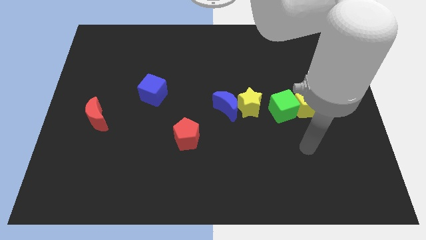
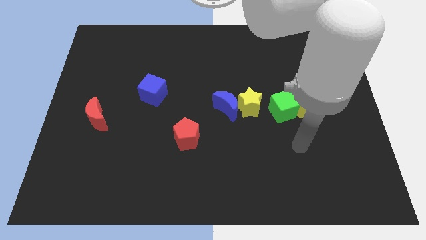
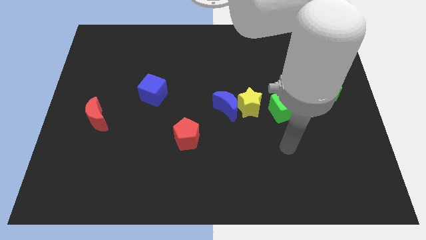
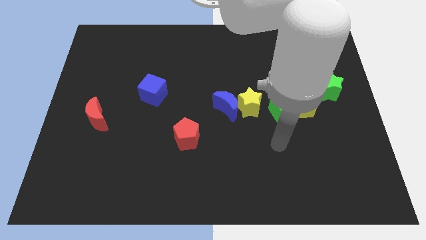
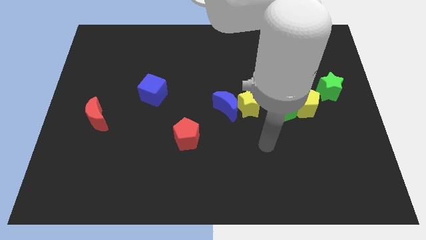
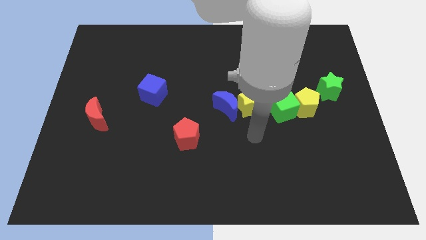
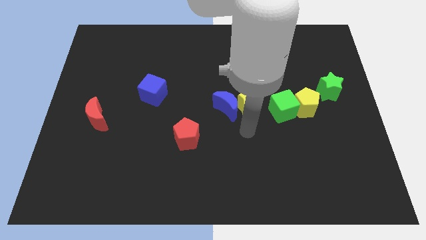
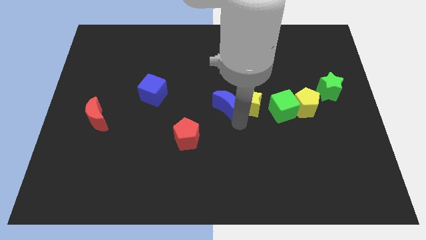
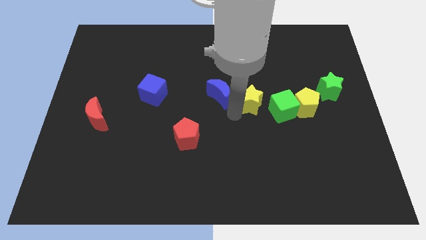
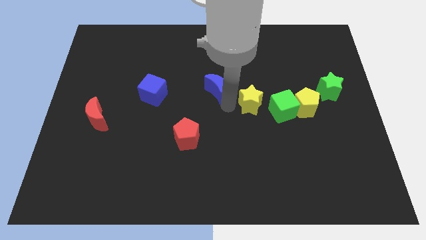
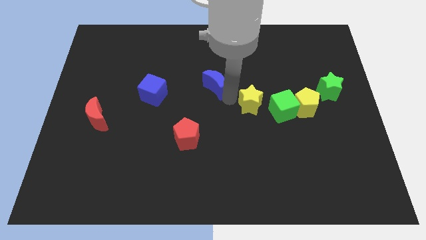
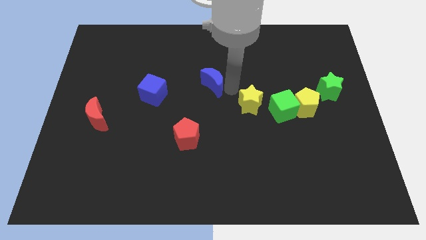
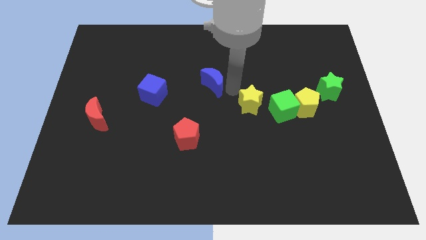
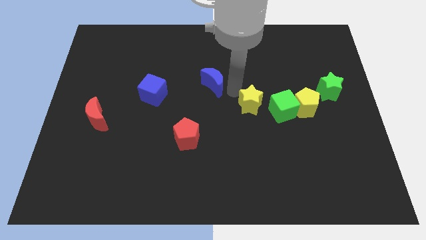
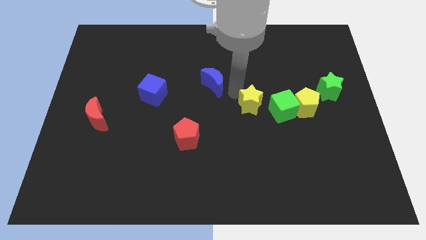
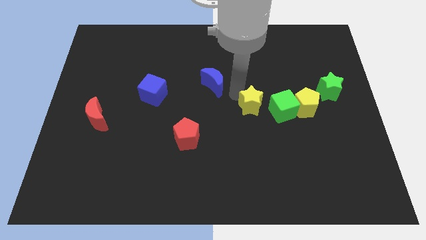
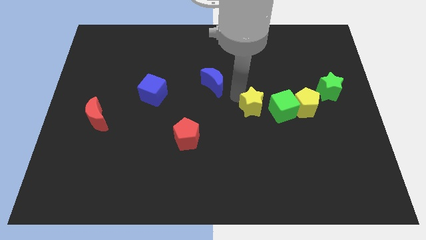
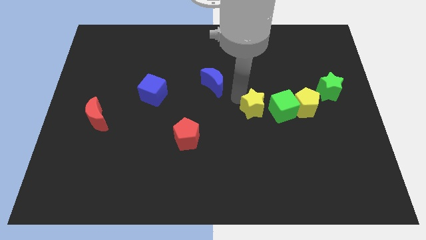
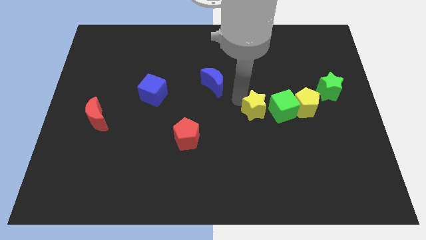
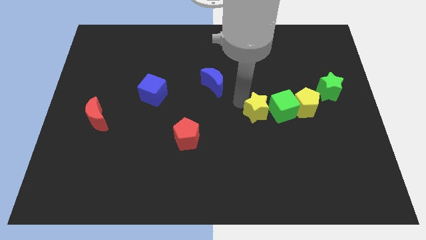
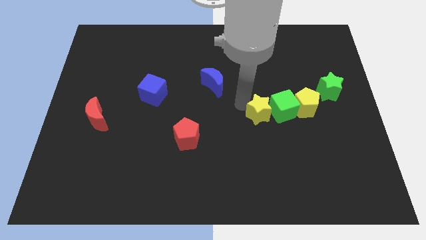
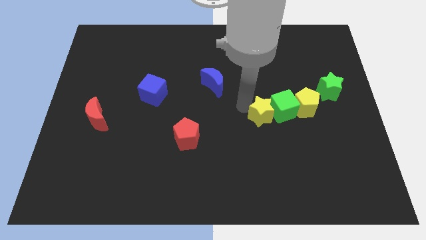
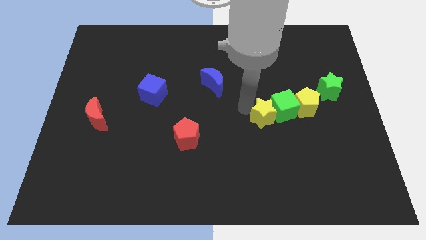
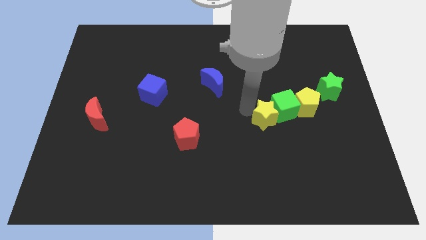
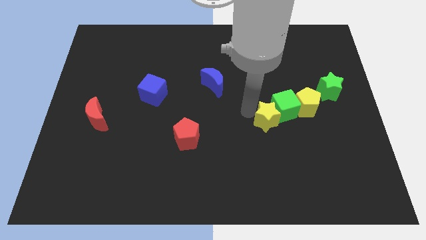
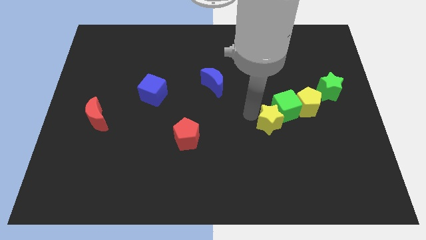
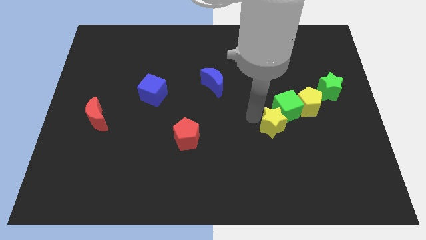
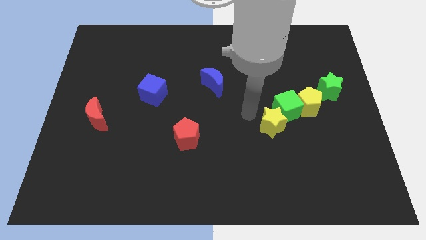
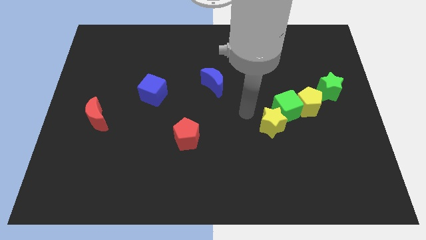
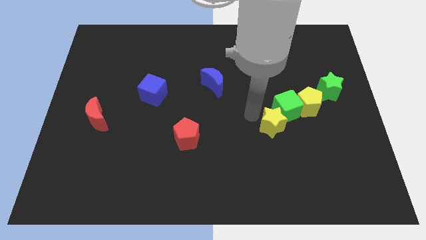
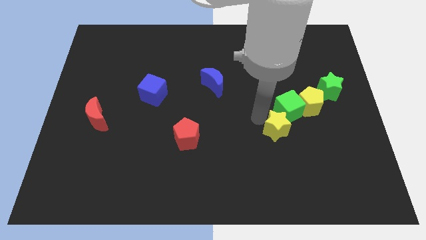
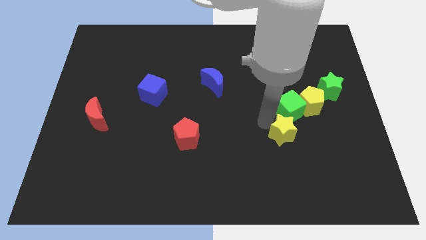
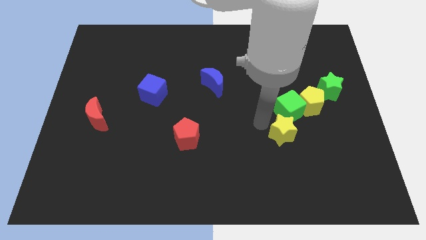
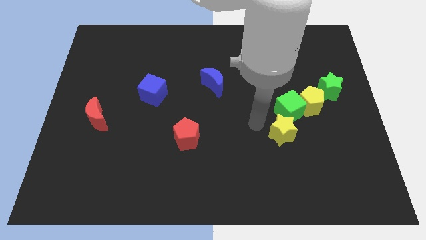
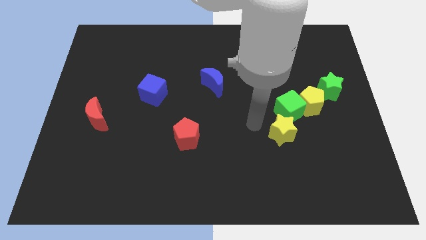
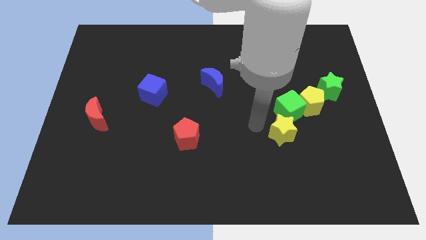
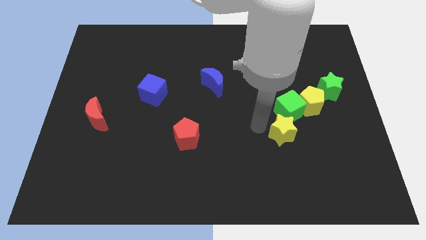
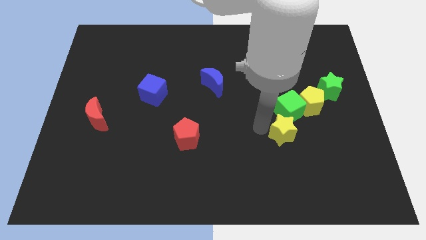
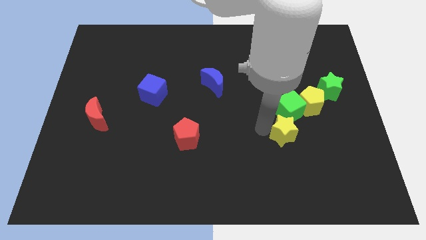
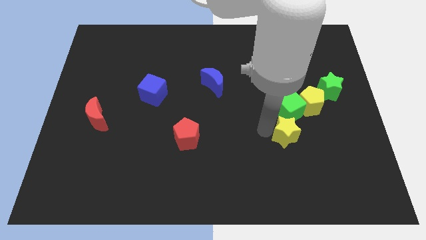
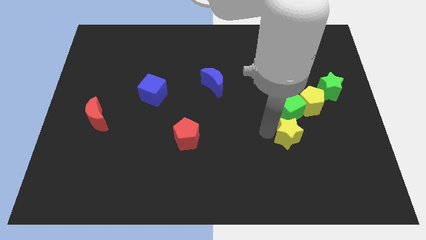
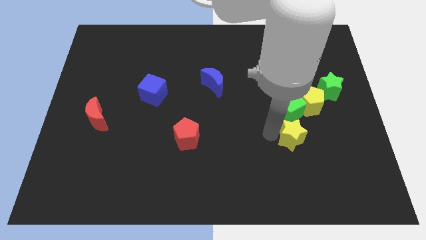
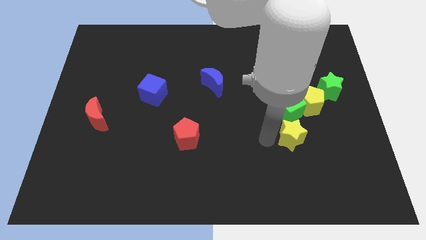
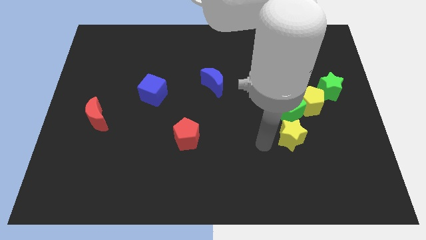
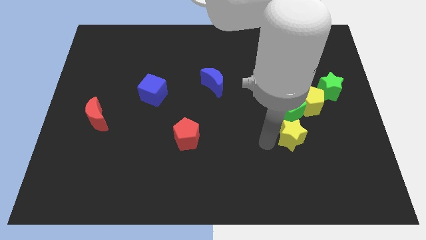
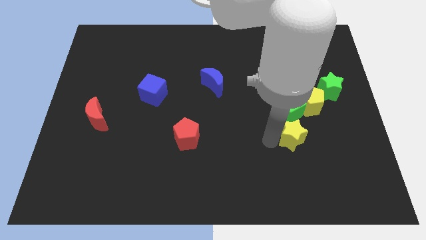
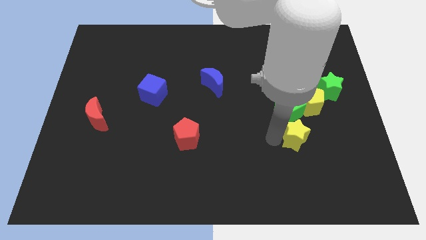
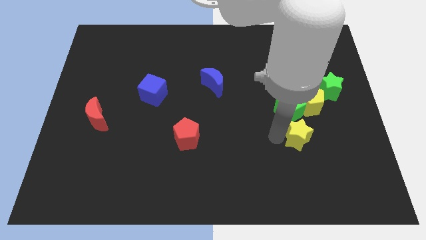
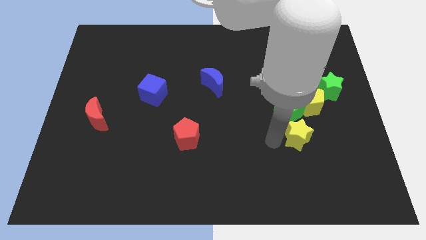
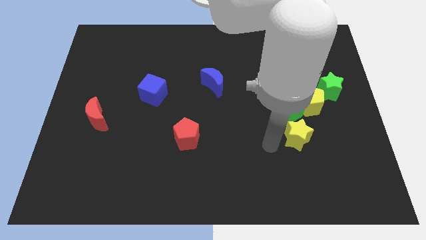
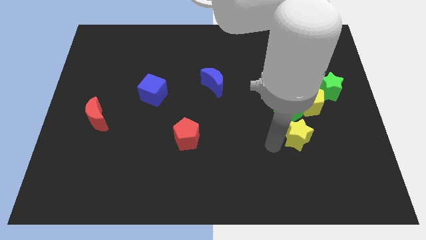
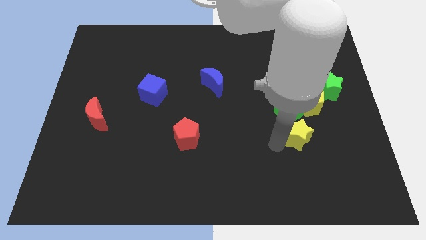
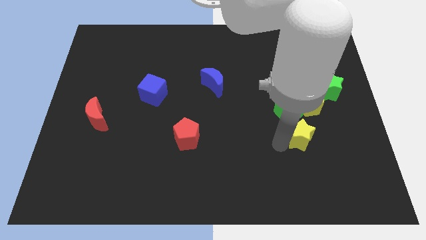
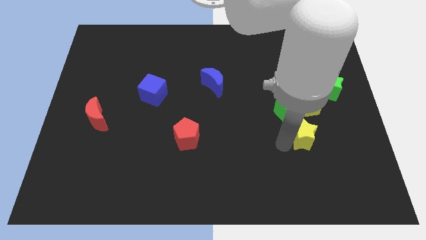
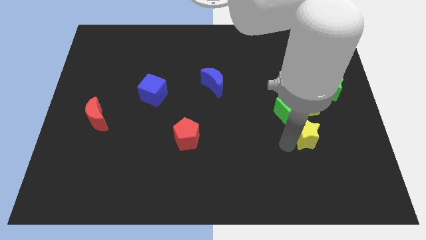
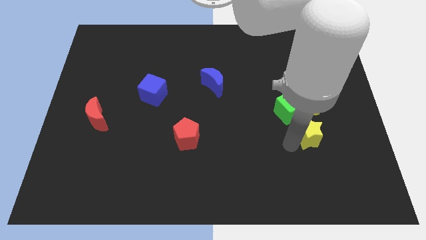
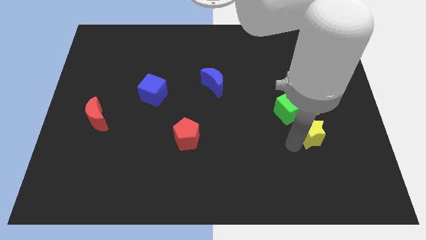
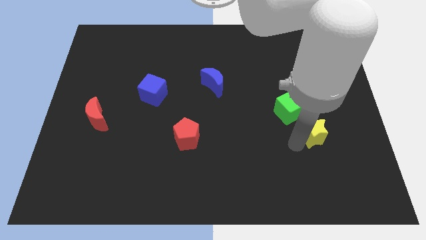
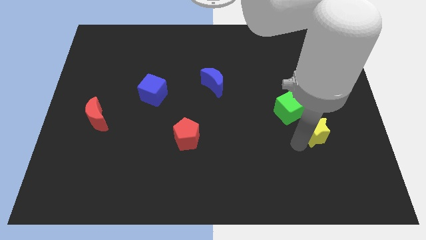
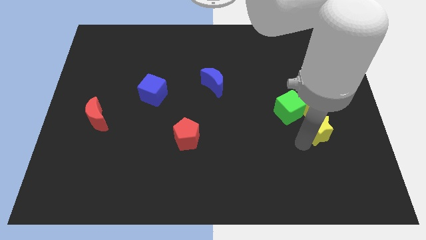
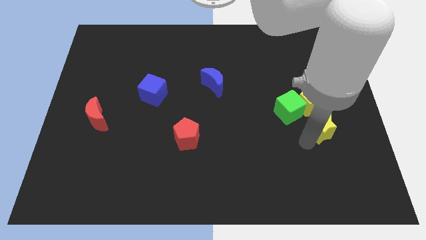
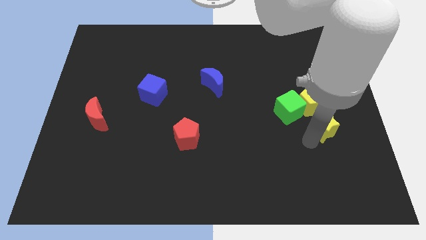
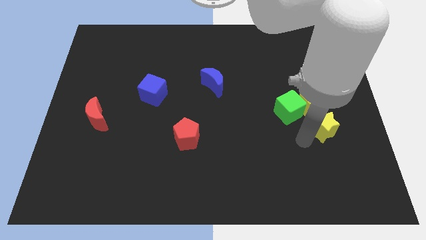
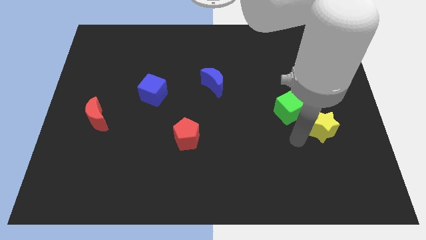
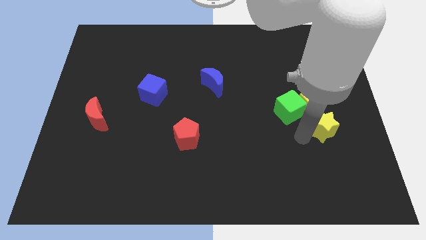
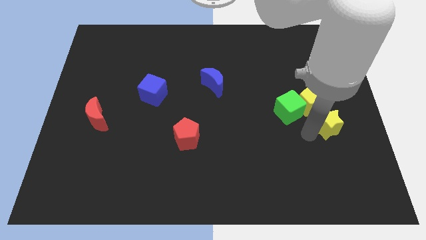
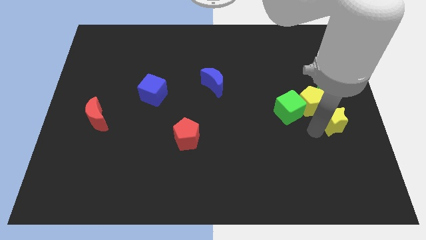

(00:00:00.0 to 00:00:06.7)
slide the yellow star to the right side

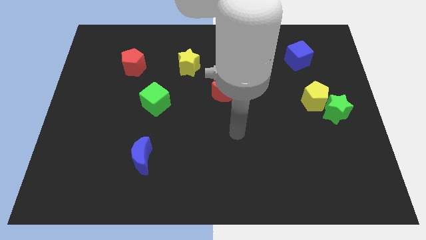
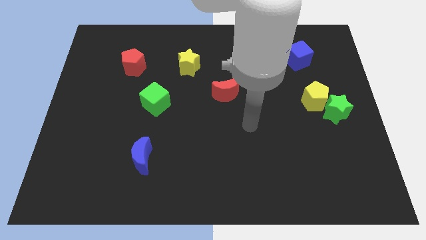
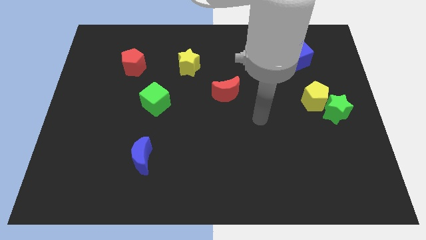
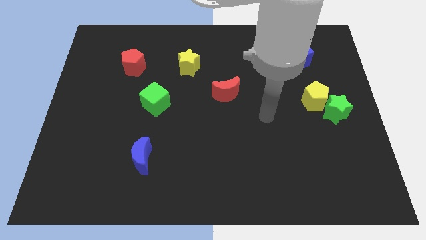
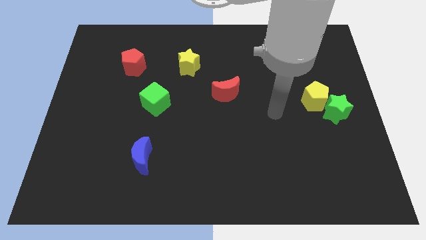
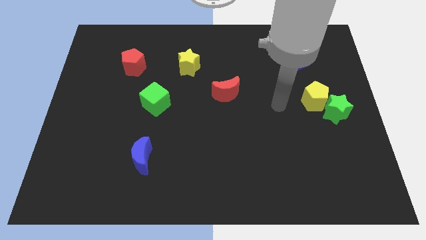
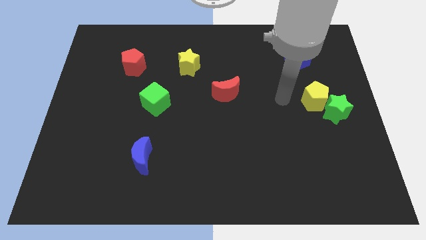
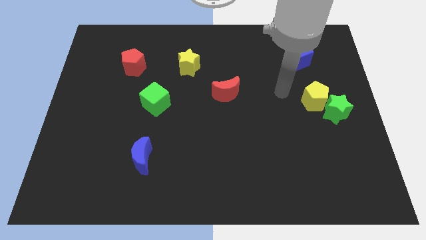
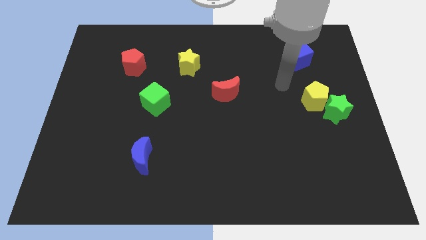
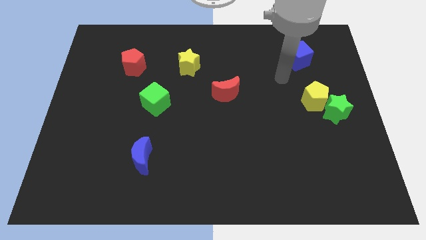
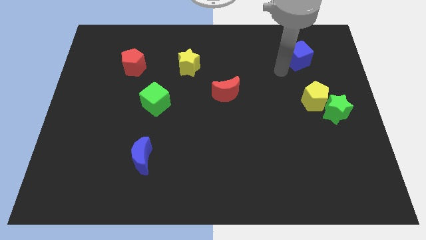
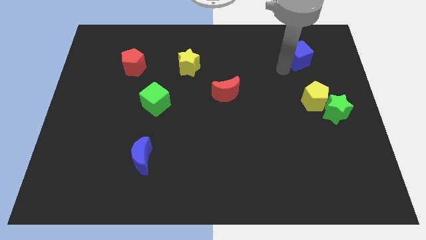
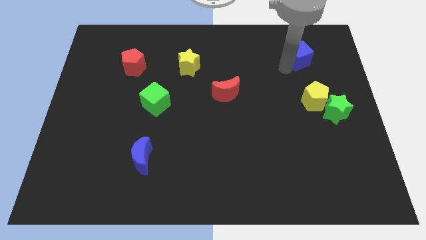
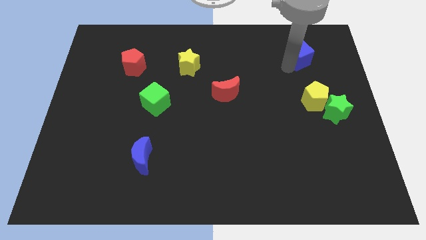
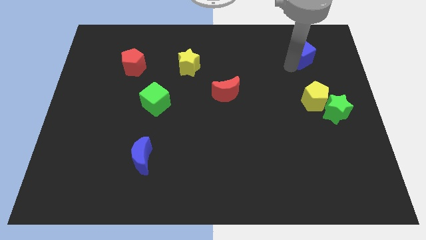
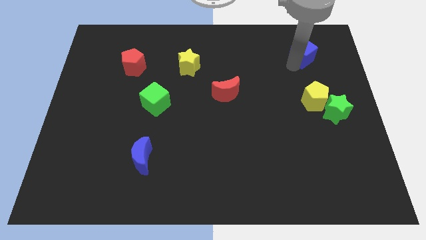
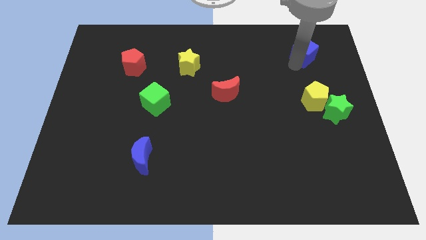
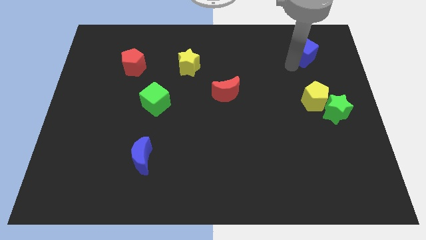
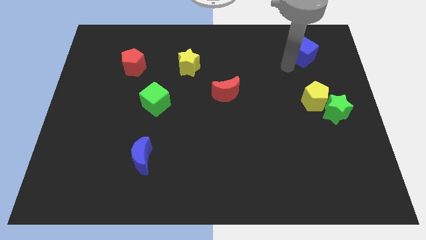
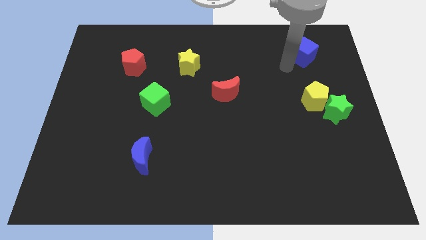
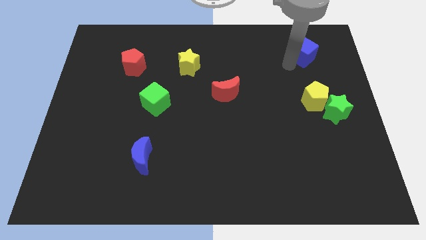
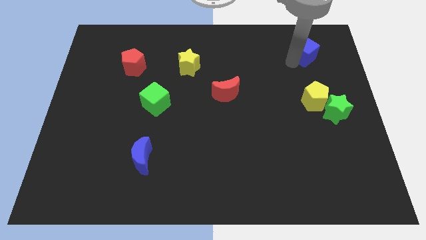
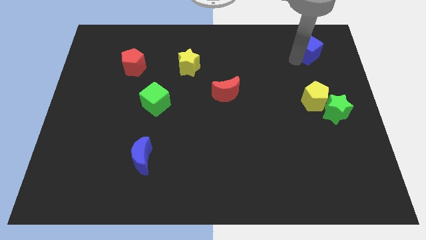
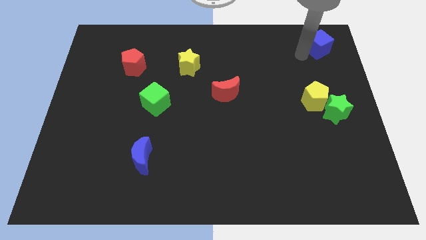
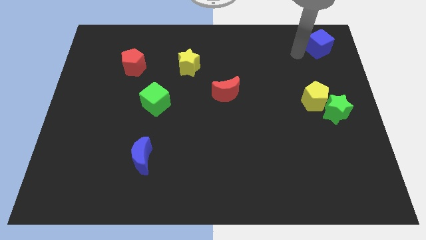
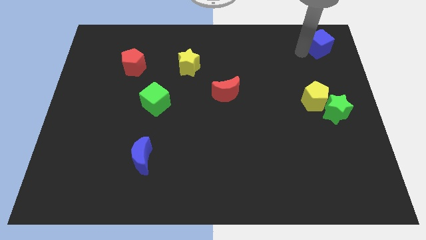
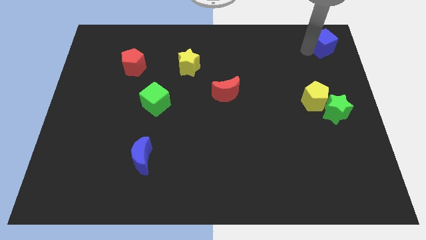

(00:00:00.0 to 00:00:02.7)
put the blue cube to the top right corner
